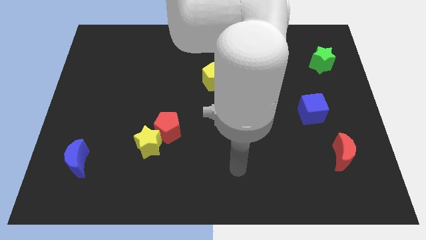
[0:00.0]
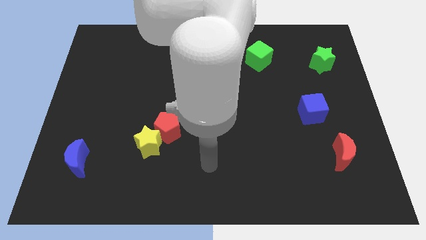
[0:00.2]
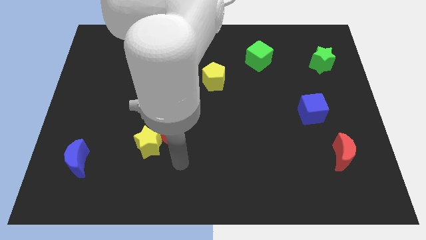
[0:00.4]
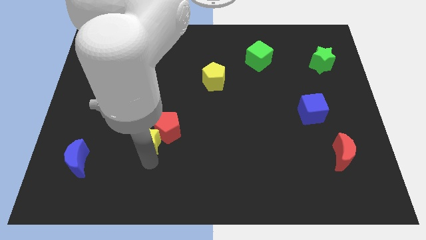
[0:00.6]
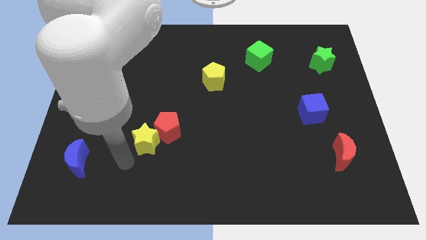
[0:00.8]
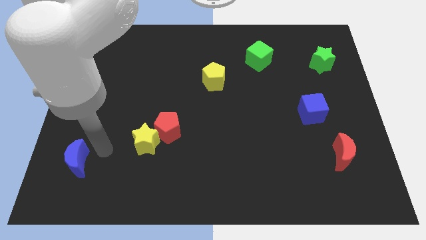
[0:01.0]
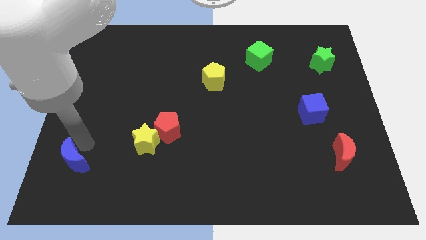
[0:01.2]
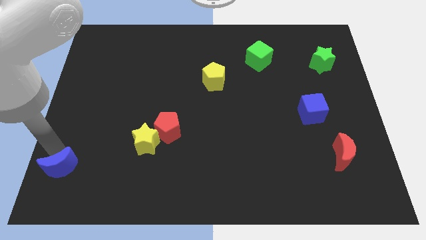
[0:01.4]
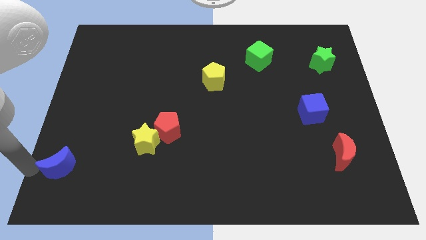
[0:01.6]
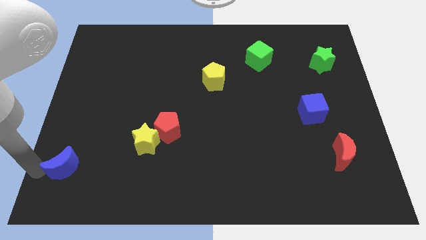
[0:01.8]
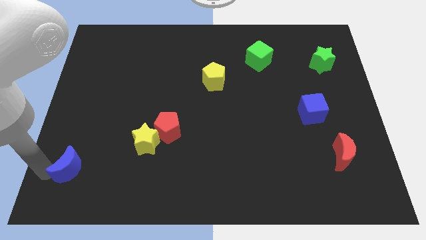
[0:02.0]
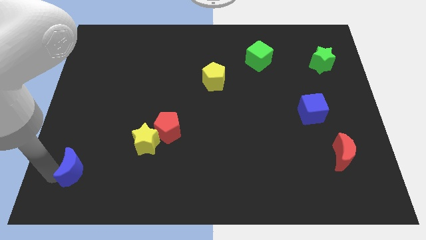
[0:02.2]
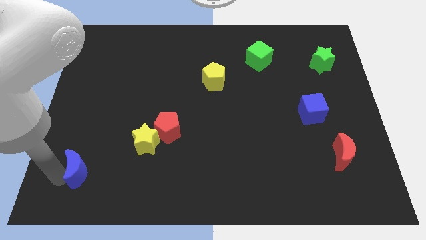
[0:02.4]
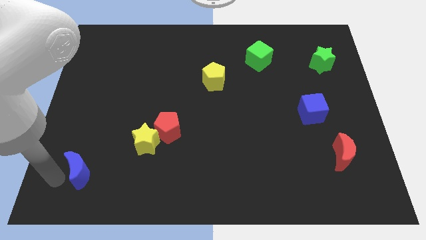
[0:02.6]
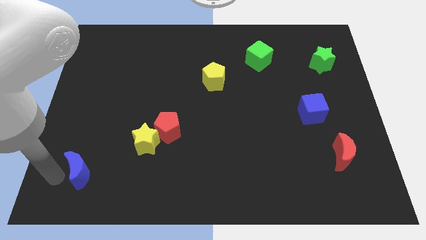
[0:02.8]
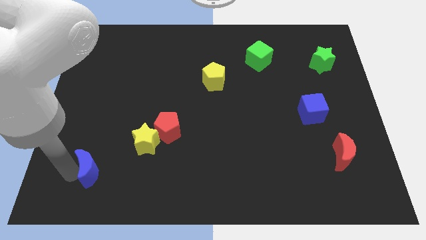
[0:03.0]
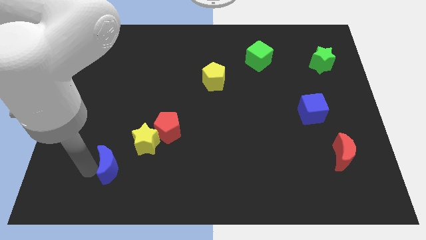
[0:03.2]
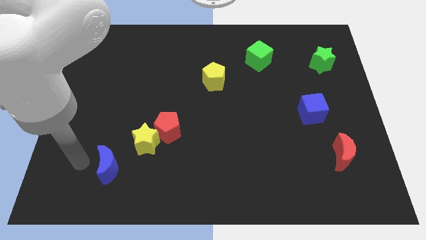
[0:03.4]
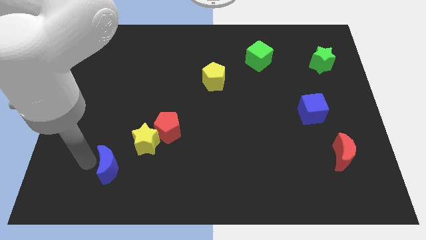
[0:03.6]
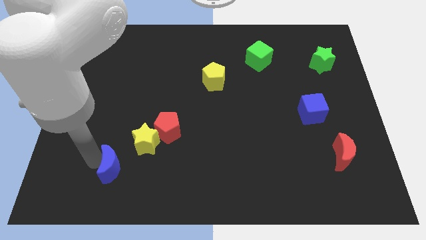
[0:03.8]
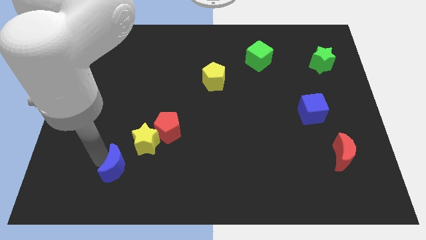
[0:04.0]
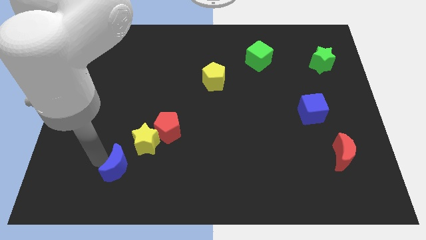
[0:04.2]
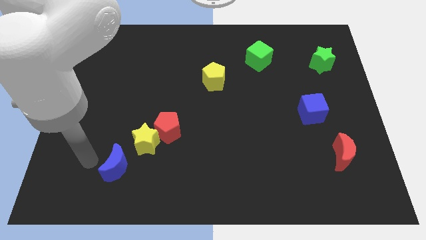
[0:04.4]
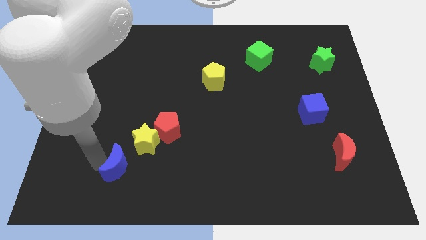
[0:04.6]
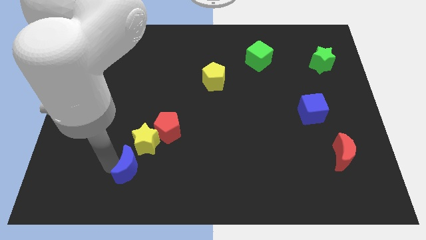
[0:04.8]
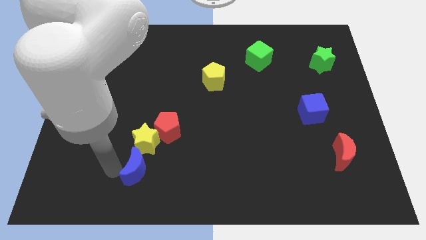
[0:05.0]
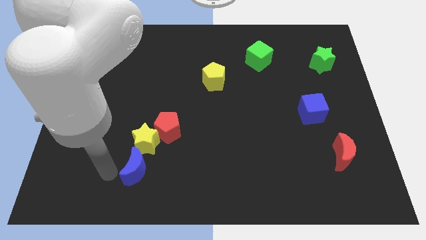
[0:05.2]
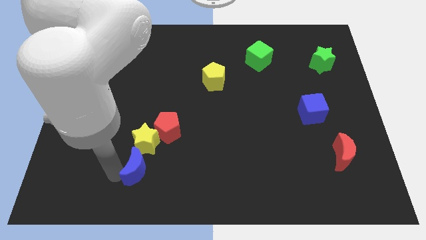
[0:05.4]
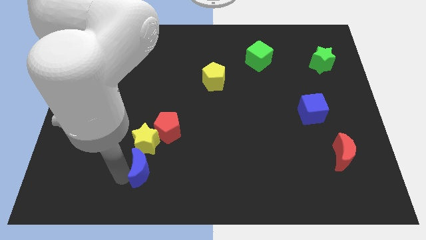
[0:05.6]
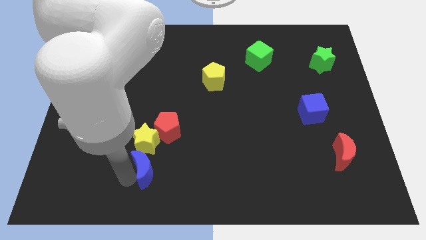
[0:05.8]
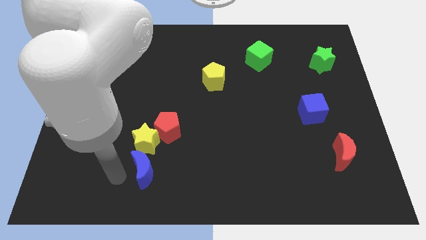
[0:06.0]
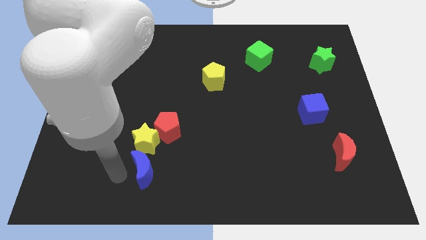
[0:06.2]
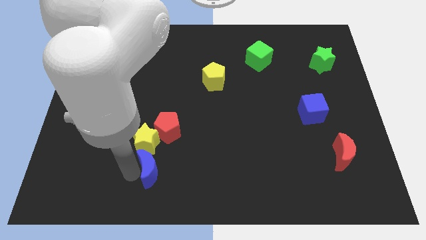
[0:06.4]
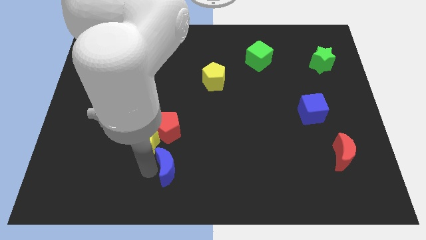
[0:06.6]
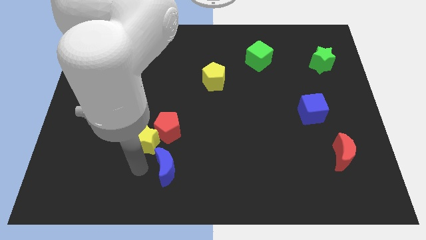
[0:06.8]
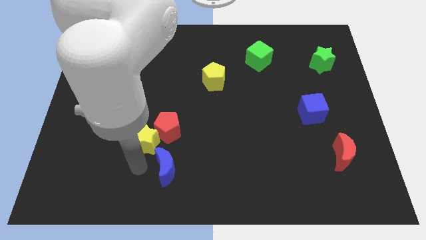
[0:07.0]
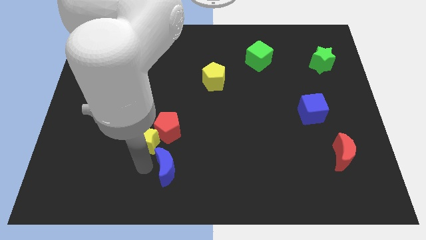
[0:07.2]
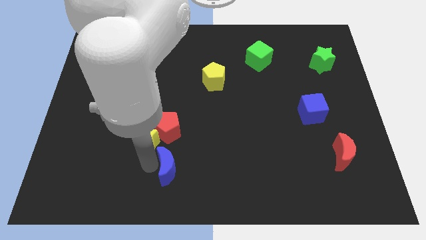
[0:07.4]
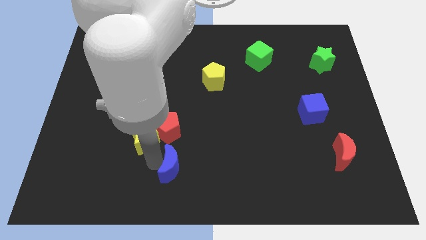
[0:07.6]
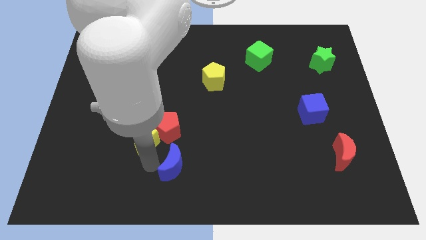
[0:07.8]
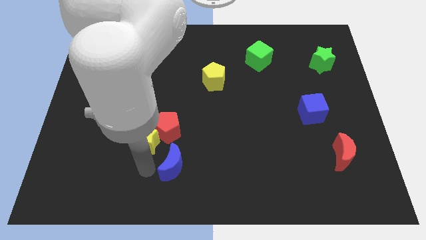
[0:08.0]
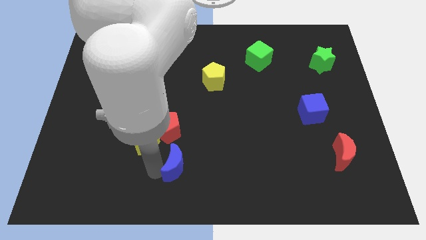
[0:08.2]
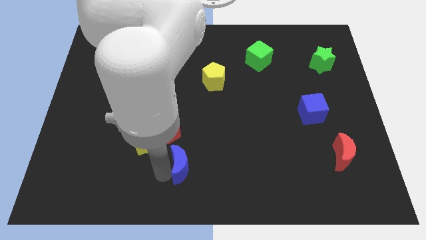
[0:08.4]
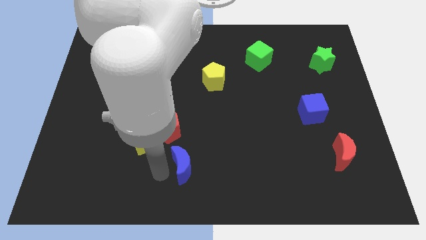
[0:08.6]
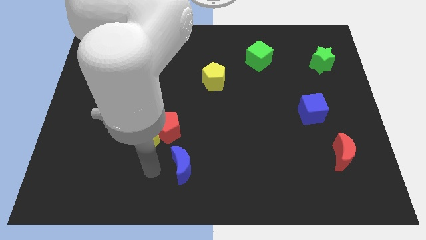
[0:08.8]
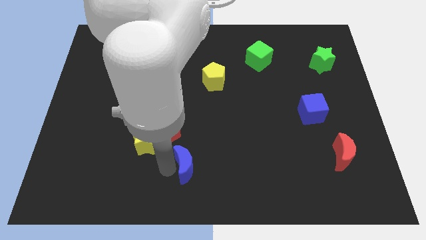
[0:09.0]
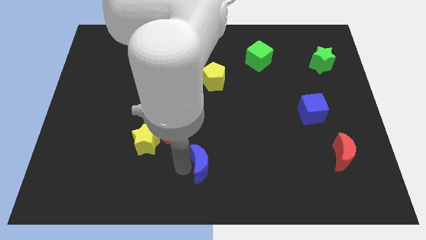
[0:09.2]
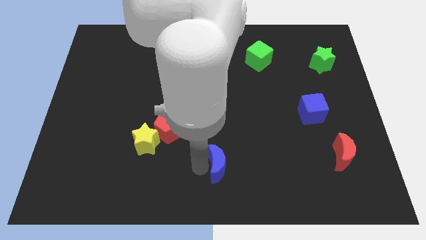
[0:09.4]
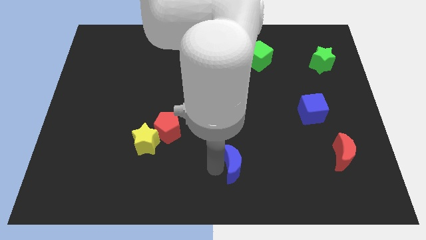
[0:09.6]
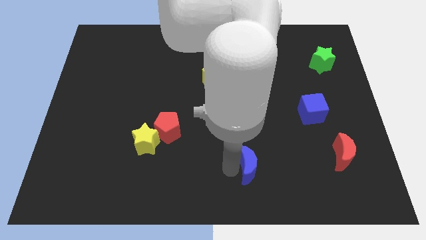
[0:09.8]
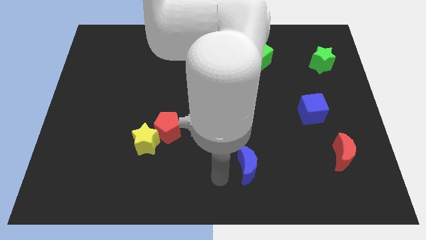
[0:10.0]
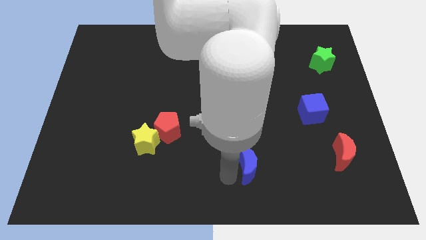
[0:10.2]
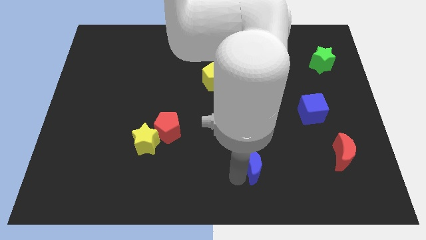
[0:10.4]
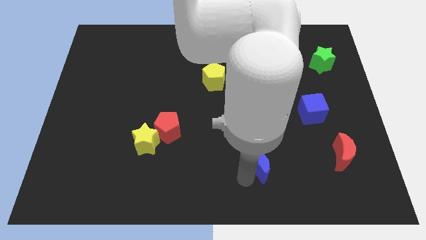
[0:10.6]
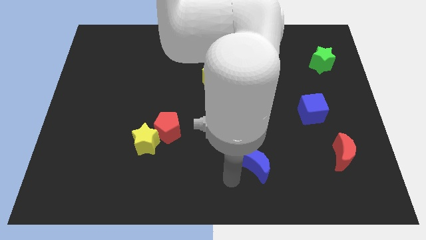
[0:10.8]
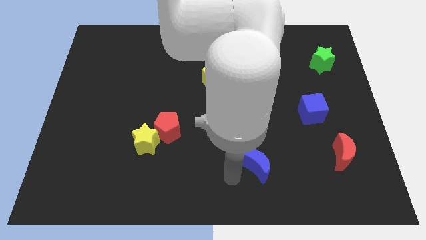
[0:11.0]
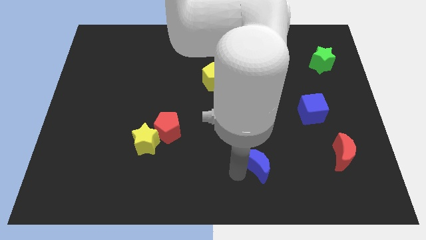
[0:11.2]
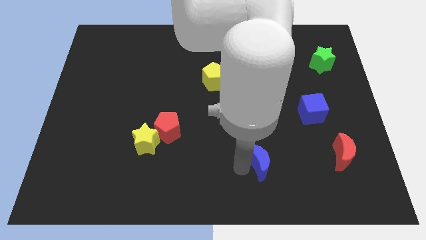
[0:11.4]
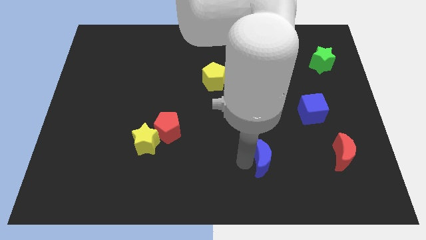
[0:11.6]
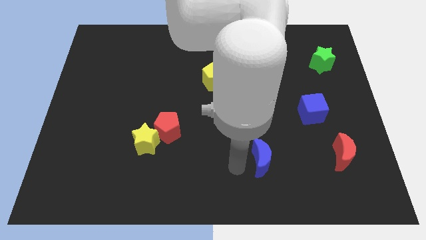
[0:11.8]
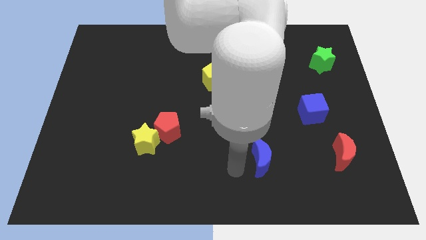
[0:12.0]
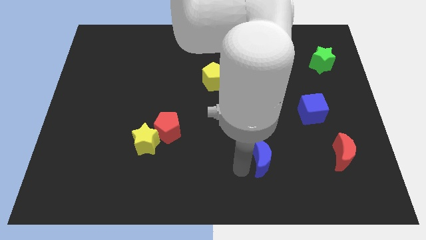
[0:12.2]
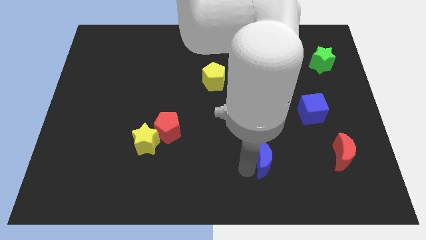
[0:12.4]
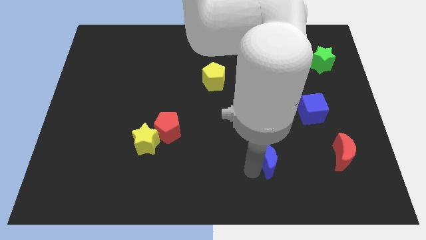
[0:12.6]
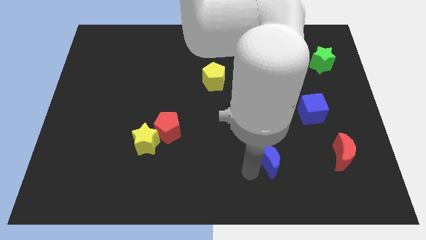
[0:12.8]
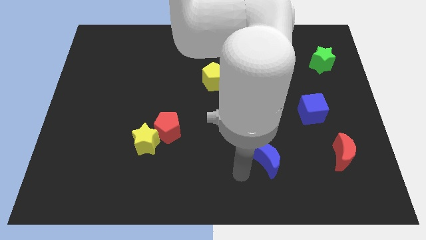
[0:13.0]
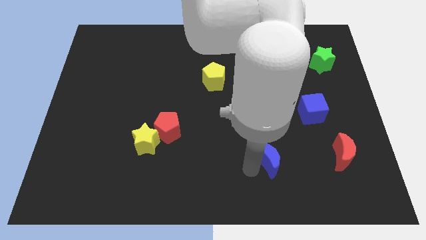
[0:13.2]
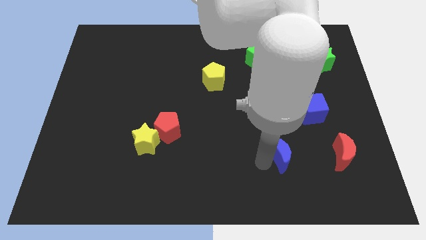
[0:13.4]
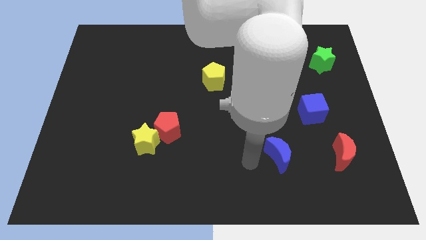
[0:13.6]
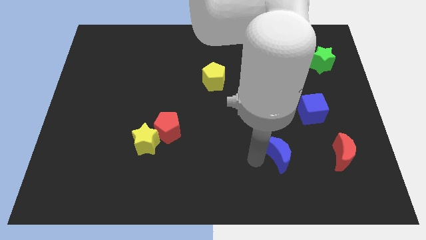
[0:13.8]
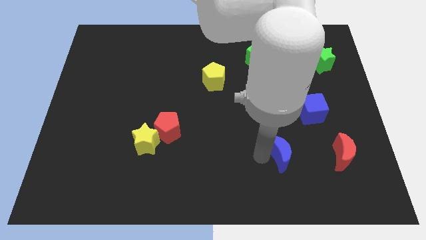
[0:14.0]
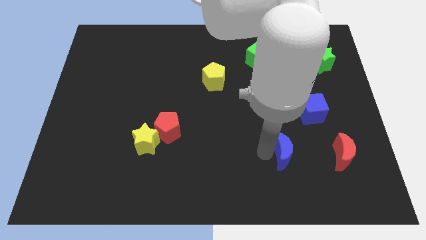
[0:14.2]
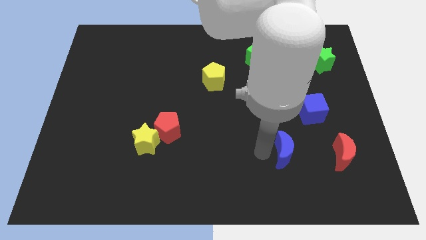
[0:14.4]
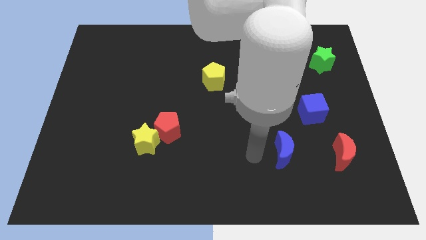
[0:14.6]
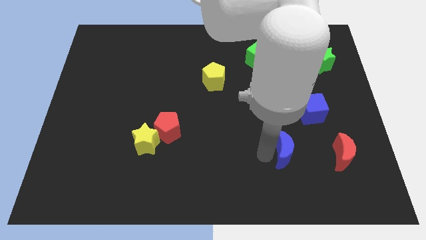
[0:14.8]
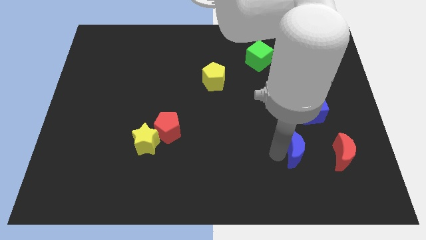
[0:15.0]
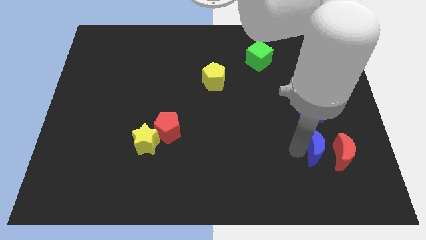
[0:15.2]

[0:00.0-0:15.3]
slide the blue moon to the red moon
